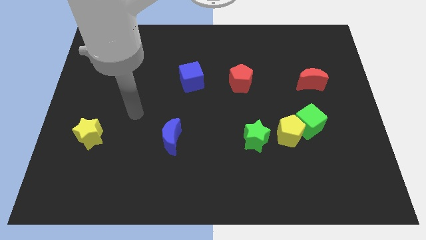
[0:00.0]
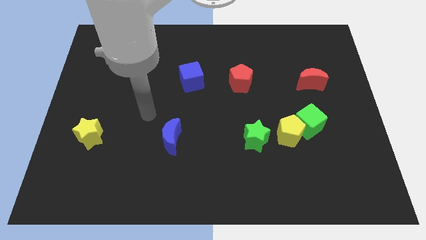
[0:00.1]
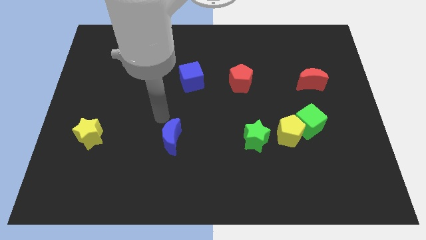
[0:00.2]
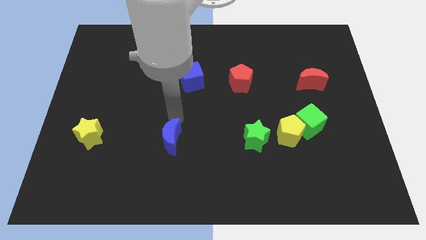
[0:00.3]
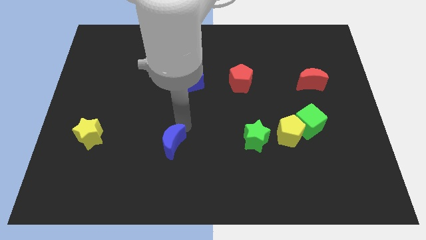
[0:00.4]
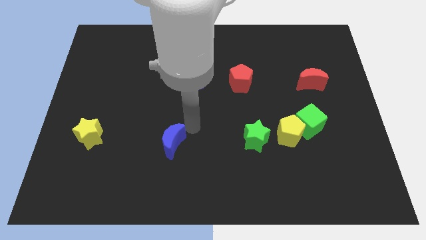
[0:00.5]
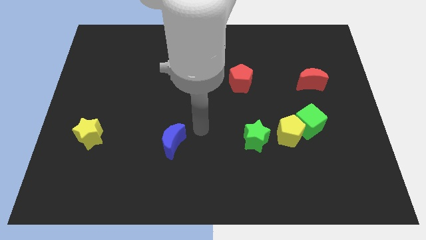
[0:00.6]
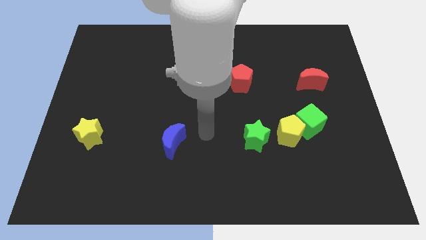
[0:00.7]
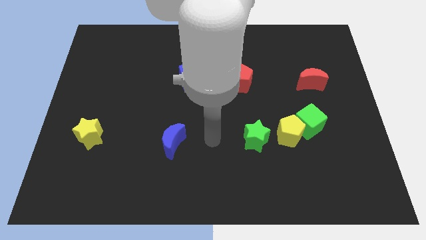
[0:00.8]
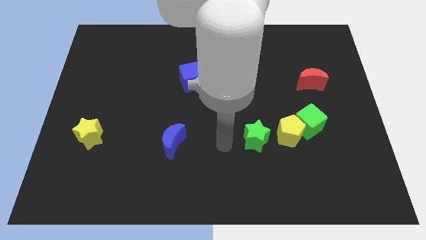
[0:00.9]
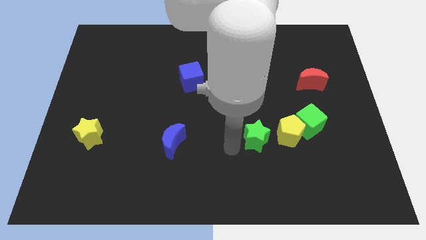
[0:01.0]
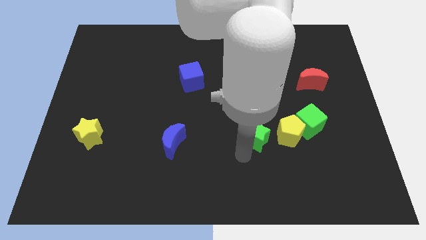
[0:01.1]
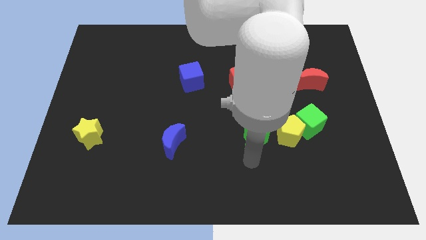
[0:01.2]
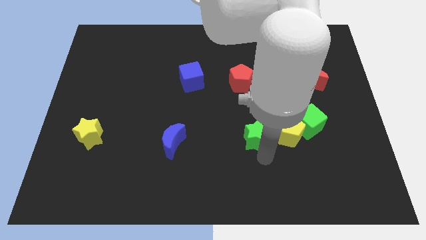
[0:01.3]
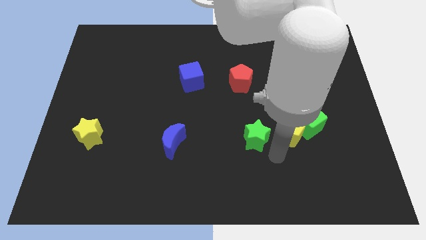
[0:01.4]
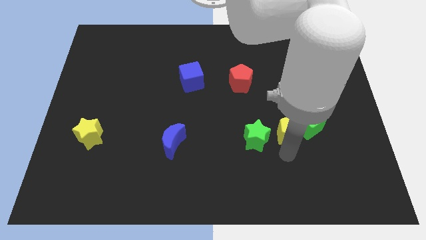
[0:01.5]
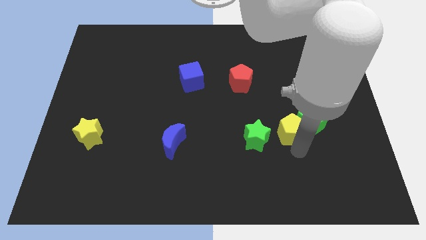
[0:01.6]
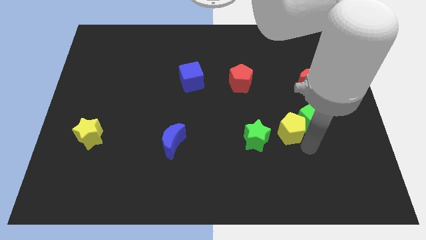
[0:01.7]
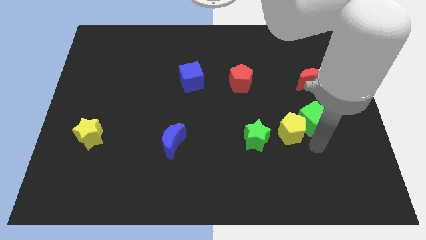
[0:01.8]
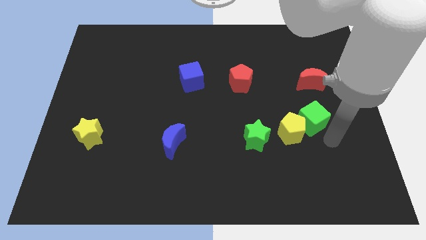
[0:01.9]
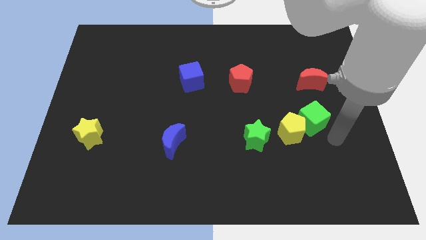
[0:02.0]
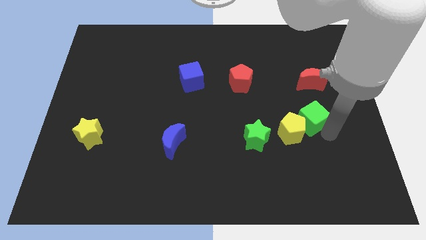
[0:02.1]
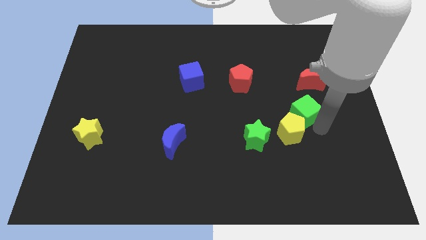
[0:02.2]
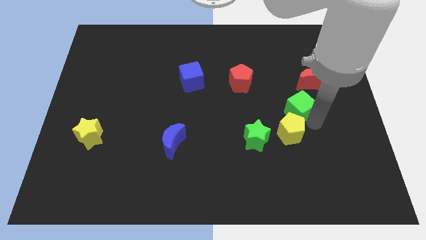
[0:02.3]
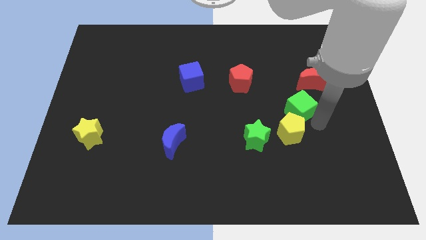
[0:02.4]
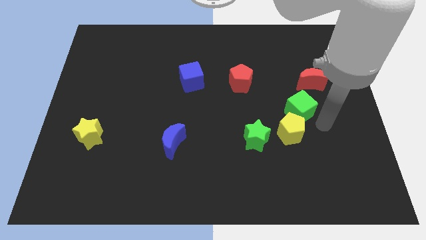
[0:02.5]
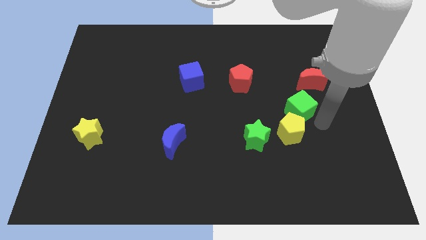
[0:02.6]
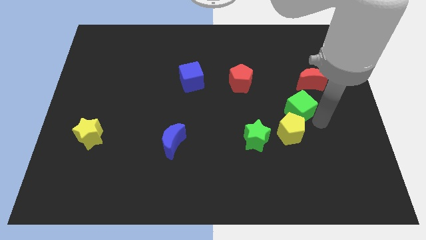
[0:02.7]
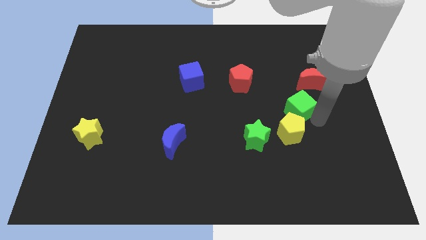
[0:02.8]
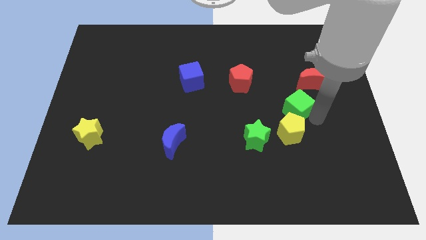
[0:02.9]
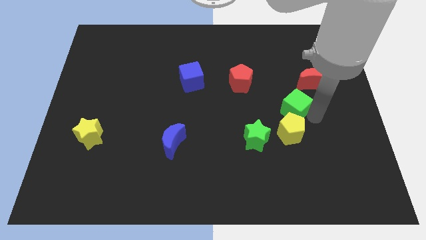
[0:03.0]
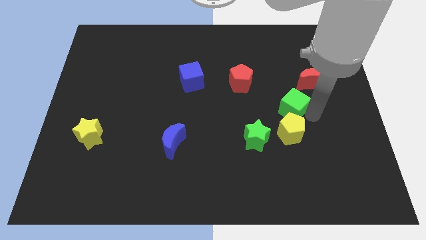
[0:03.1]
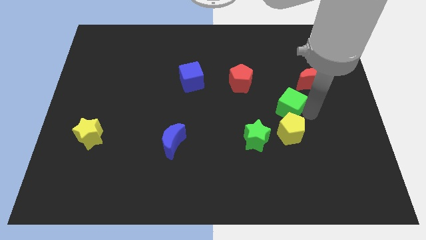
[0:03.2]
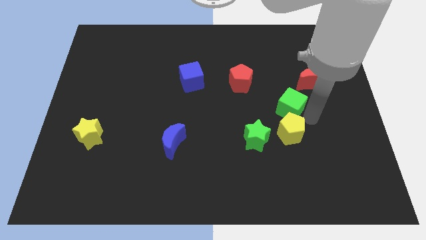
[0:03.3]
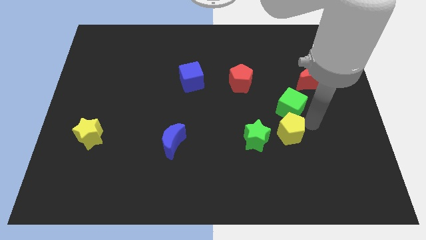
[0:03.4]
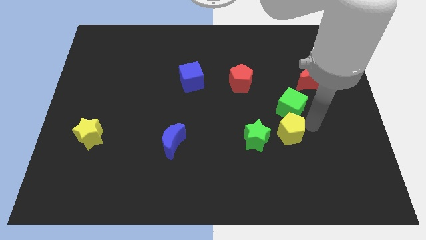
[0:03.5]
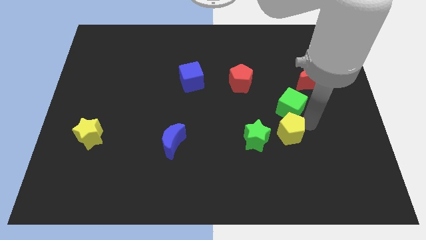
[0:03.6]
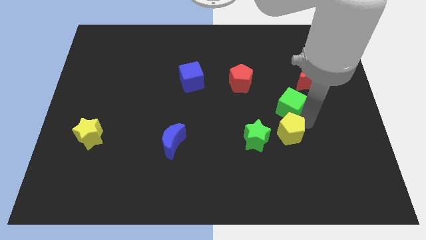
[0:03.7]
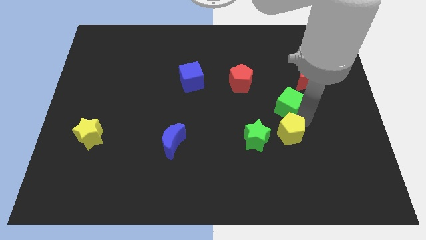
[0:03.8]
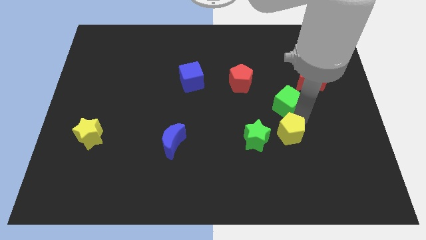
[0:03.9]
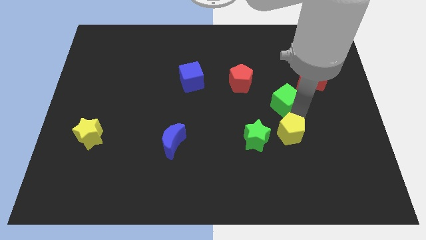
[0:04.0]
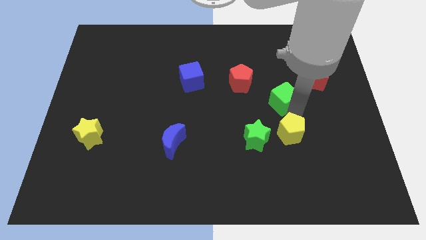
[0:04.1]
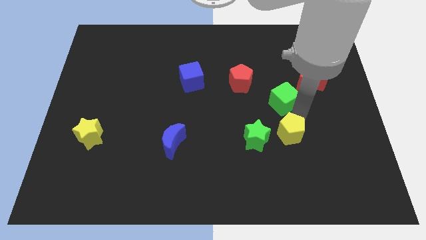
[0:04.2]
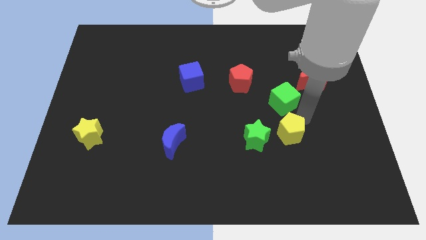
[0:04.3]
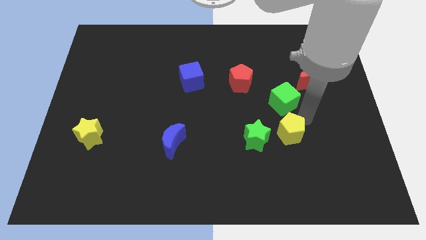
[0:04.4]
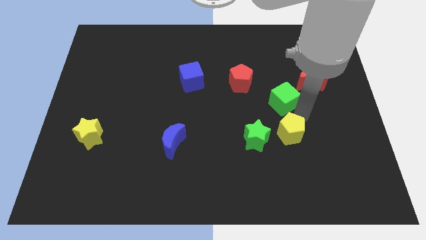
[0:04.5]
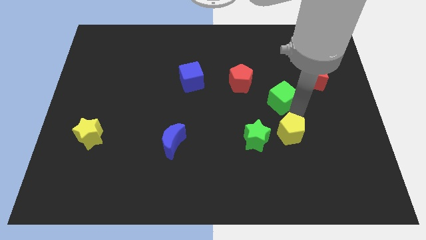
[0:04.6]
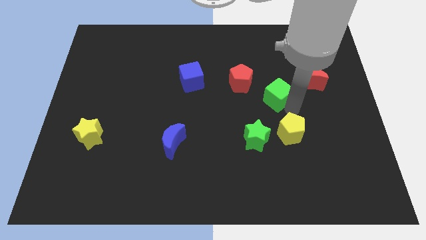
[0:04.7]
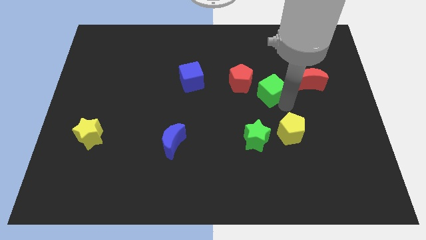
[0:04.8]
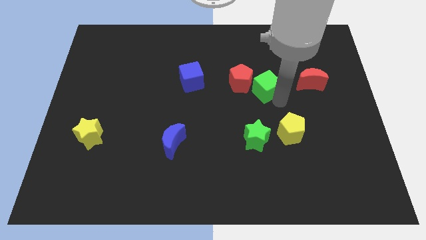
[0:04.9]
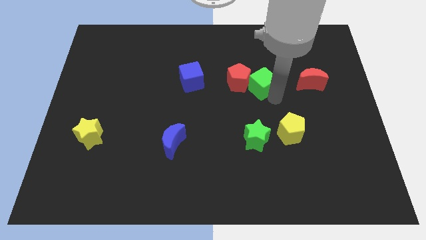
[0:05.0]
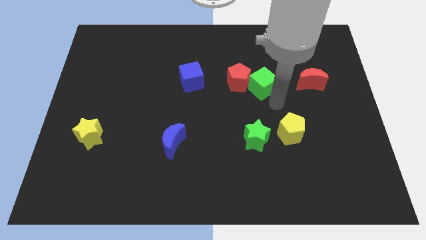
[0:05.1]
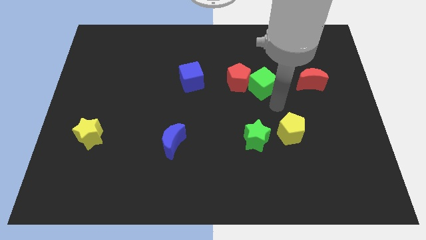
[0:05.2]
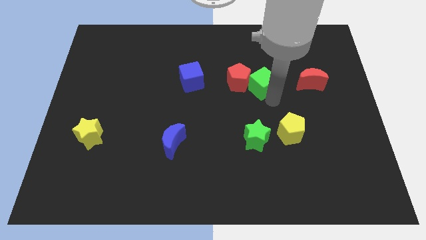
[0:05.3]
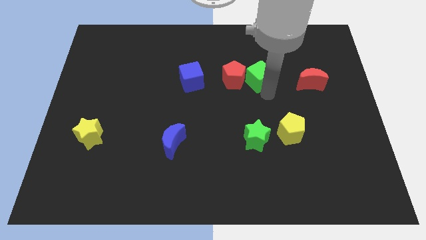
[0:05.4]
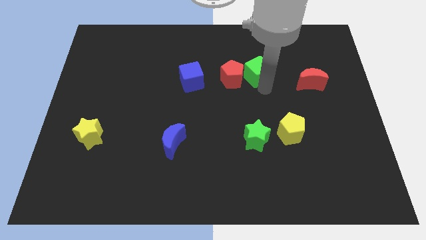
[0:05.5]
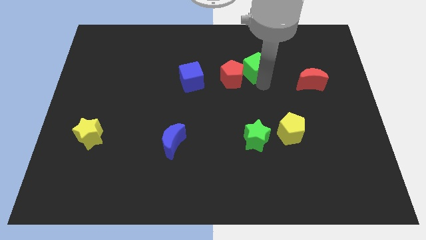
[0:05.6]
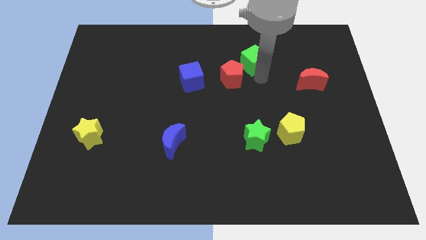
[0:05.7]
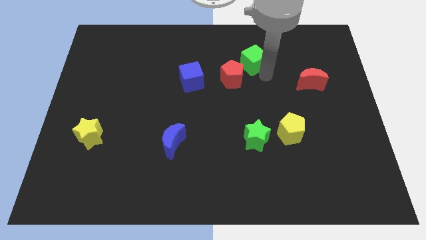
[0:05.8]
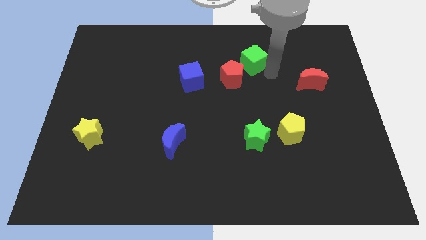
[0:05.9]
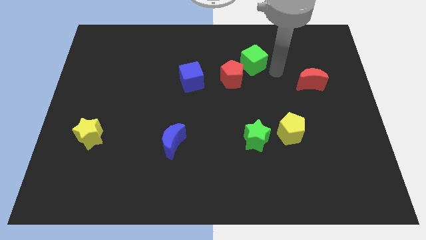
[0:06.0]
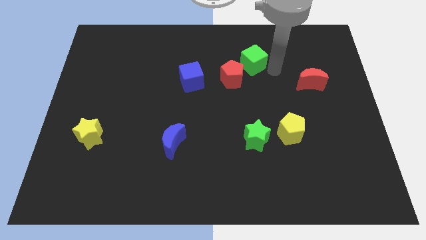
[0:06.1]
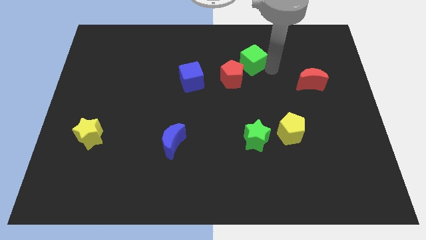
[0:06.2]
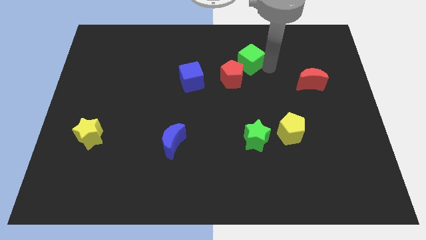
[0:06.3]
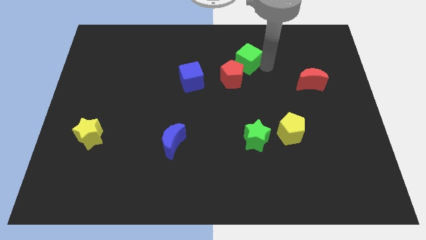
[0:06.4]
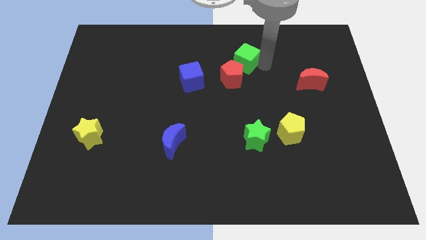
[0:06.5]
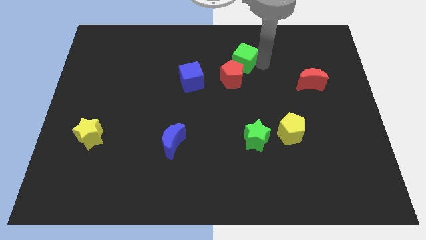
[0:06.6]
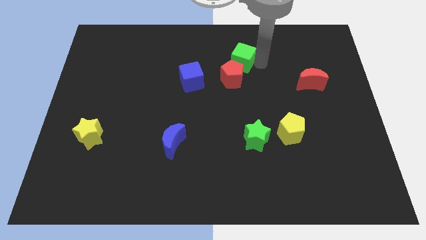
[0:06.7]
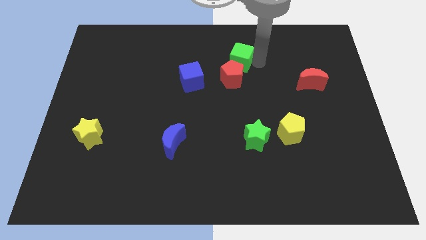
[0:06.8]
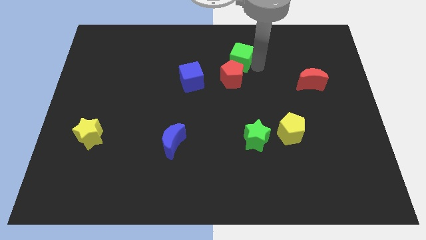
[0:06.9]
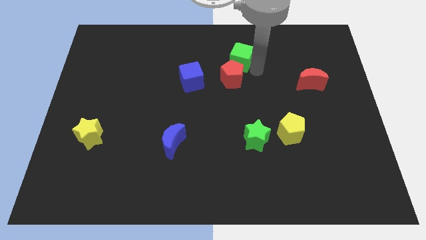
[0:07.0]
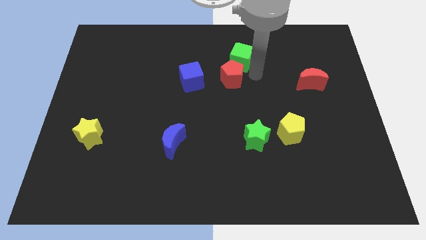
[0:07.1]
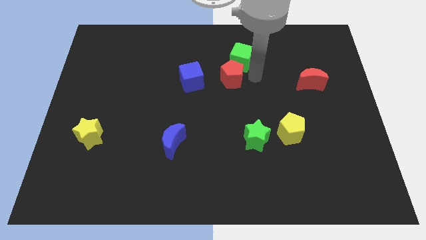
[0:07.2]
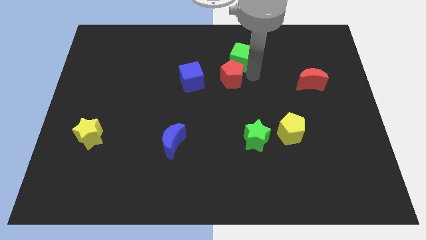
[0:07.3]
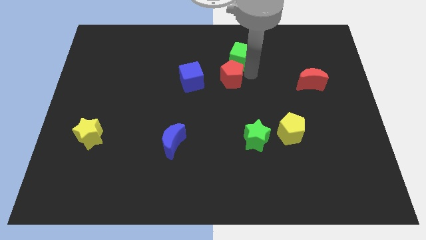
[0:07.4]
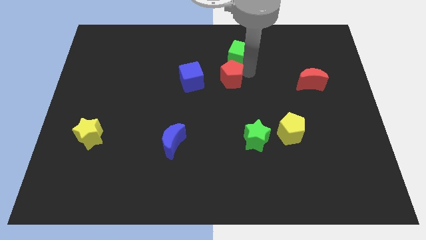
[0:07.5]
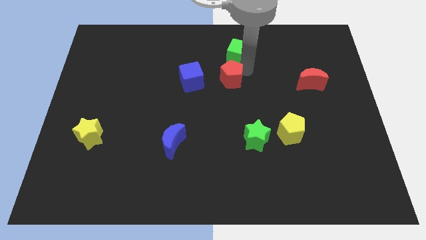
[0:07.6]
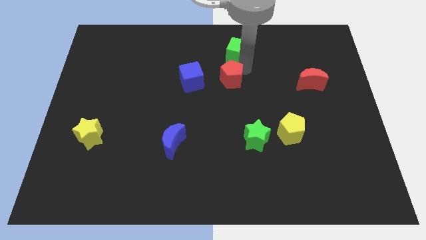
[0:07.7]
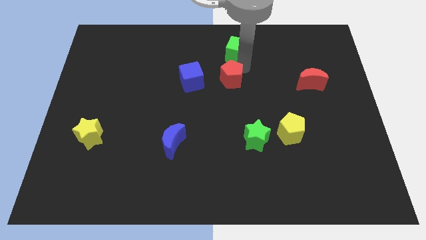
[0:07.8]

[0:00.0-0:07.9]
put the green cube to the top
